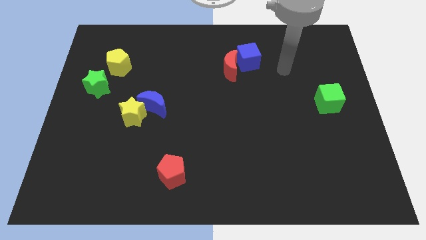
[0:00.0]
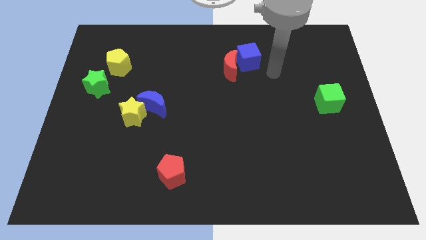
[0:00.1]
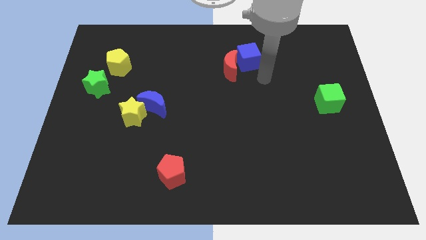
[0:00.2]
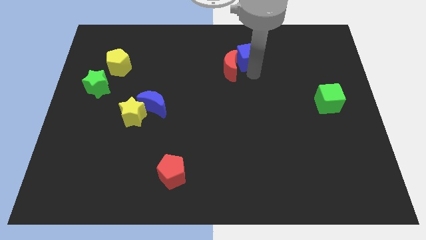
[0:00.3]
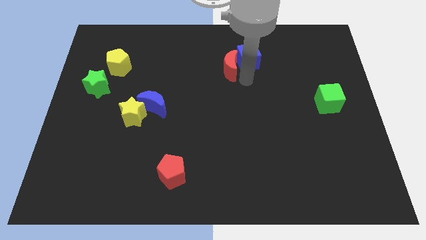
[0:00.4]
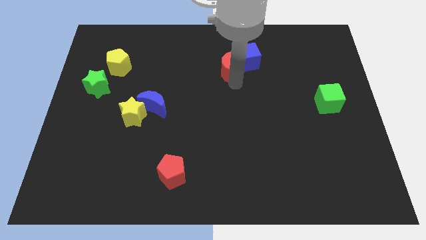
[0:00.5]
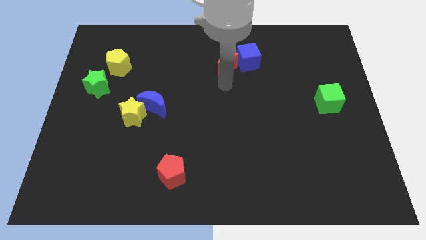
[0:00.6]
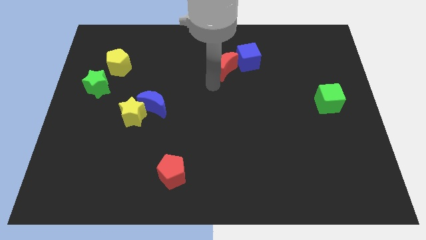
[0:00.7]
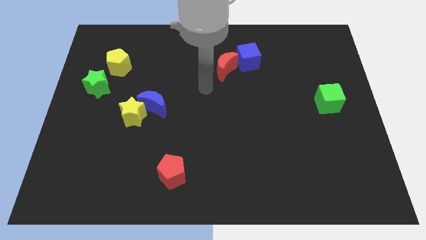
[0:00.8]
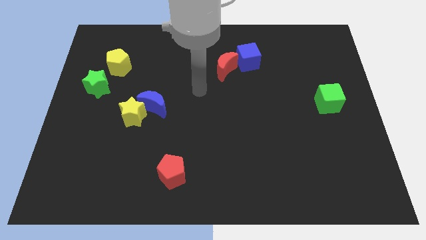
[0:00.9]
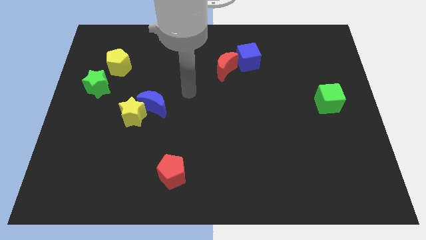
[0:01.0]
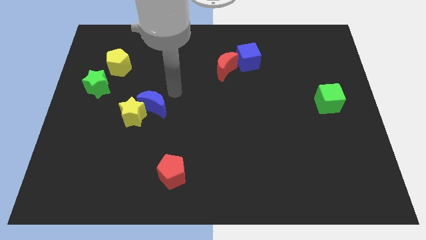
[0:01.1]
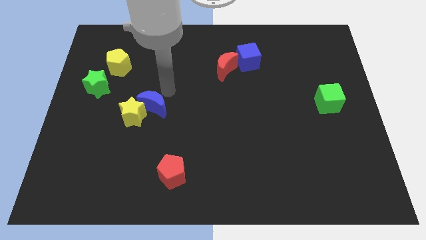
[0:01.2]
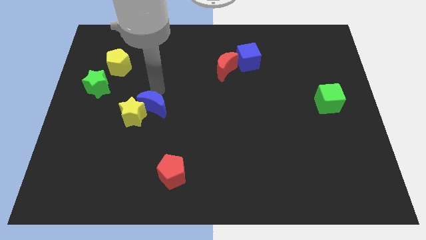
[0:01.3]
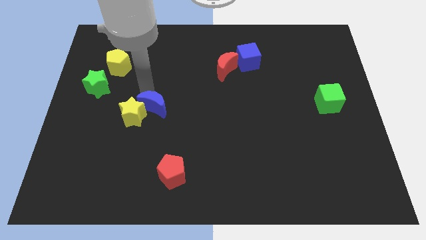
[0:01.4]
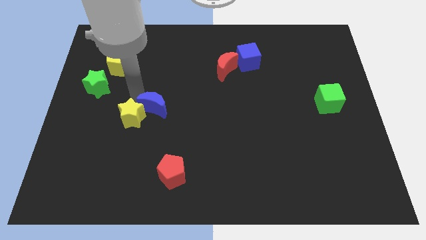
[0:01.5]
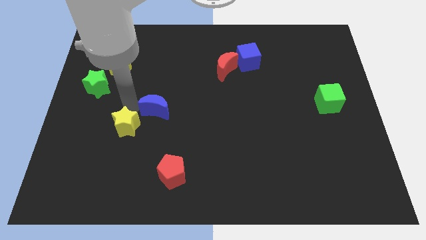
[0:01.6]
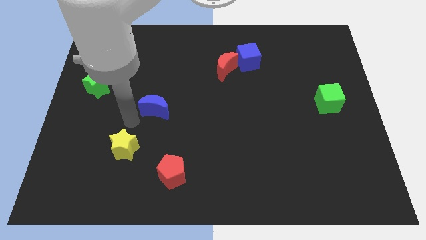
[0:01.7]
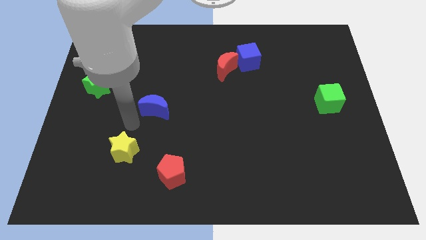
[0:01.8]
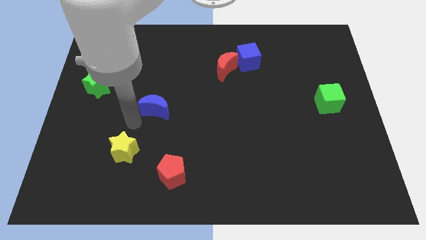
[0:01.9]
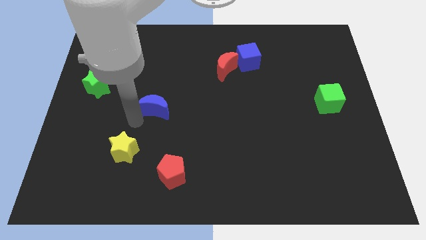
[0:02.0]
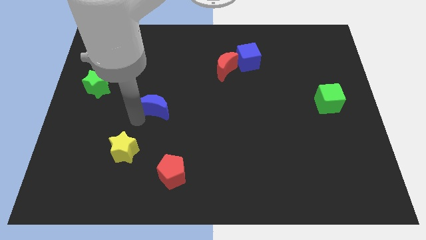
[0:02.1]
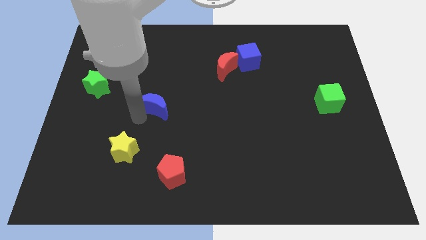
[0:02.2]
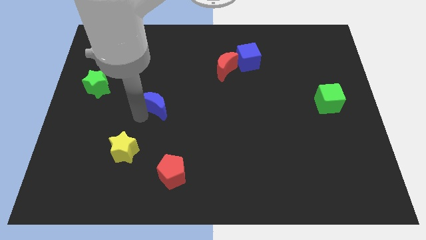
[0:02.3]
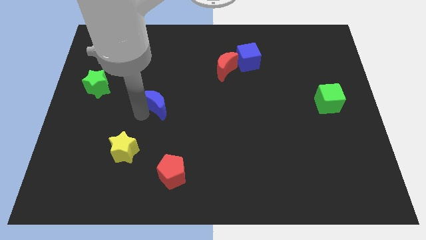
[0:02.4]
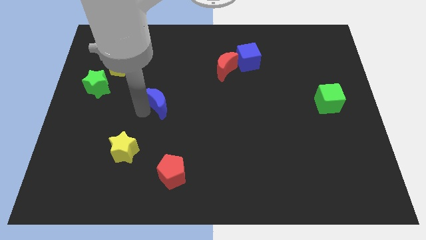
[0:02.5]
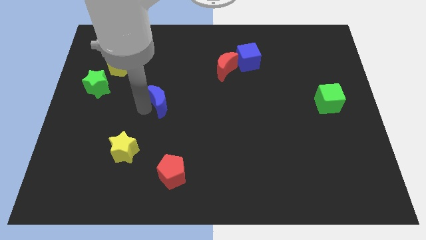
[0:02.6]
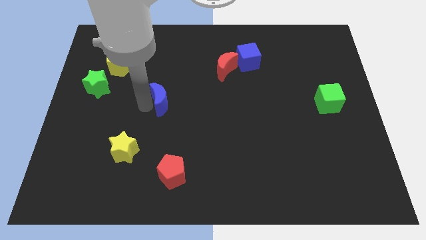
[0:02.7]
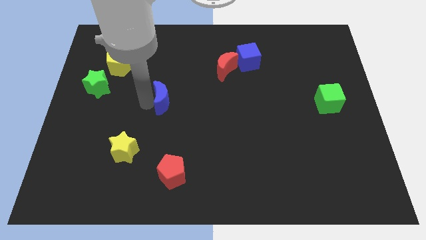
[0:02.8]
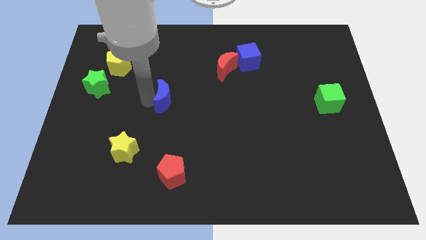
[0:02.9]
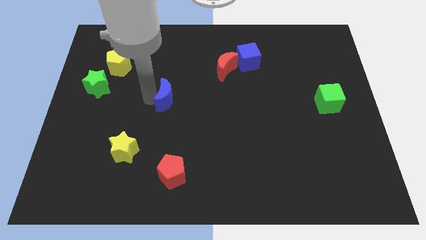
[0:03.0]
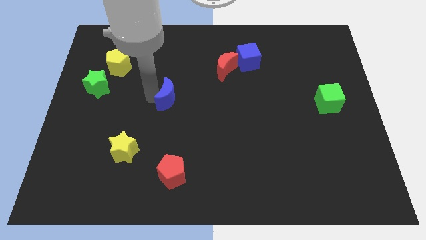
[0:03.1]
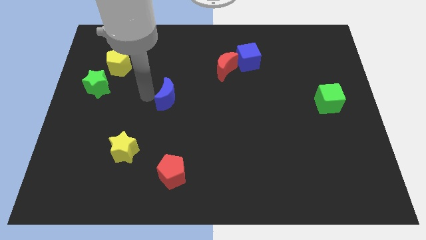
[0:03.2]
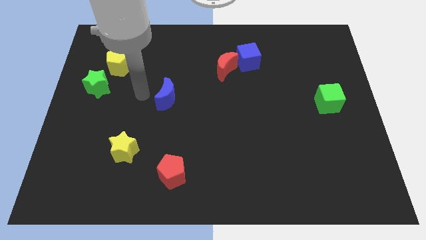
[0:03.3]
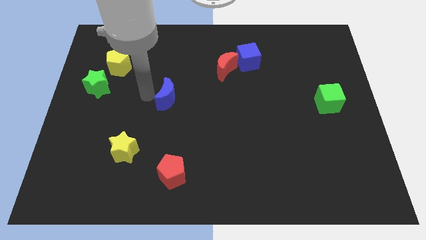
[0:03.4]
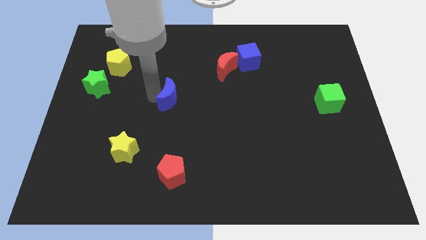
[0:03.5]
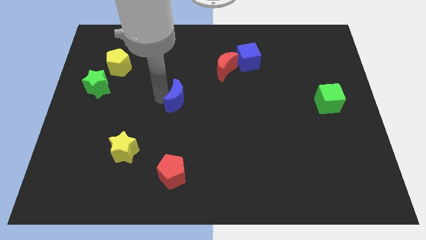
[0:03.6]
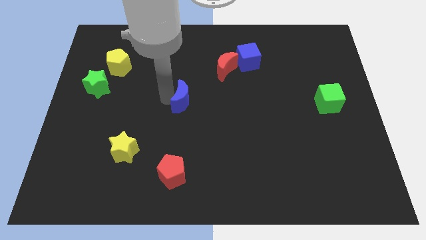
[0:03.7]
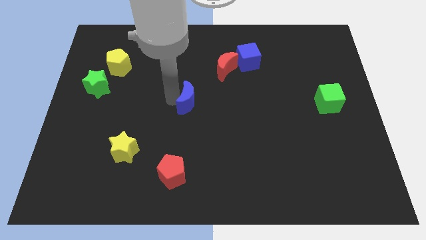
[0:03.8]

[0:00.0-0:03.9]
slightly move the blue moon to the right

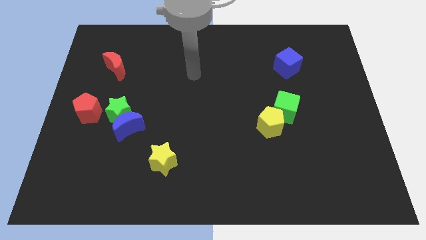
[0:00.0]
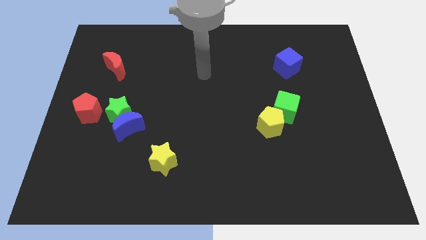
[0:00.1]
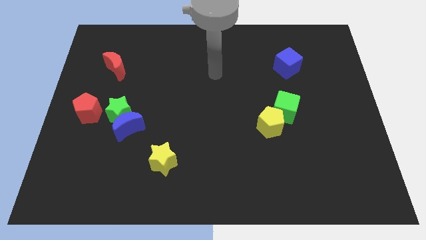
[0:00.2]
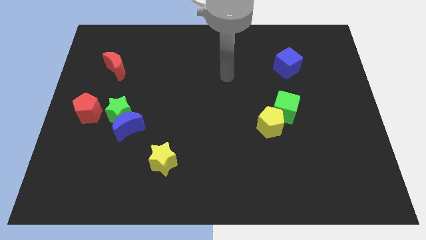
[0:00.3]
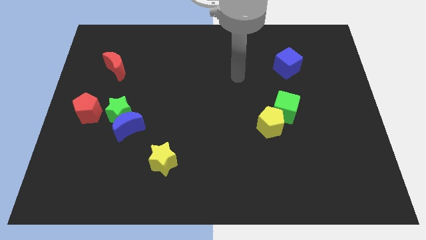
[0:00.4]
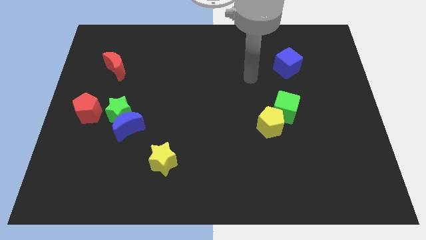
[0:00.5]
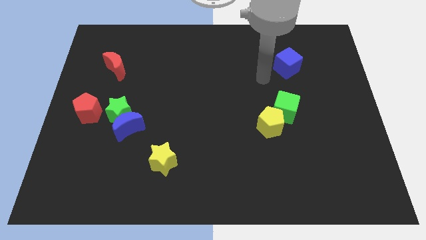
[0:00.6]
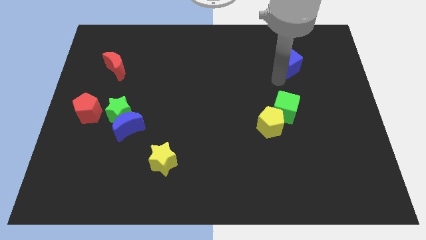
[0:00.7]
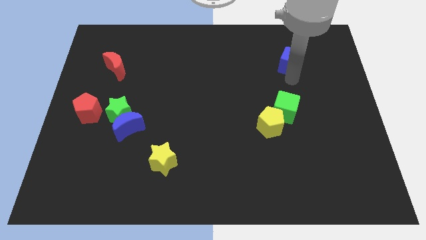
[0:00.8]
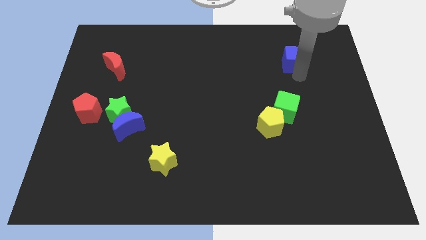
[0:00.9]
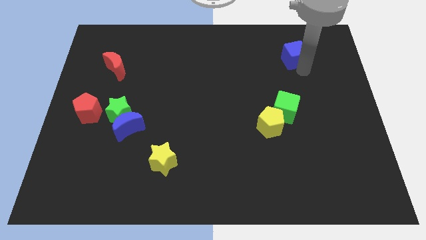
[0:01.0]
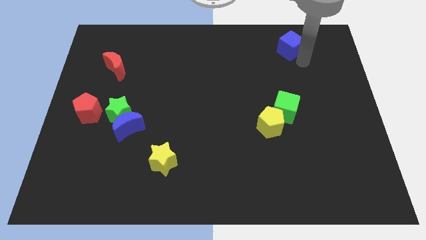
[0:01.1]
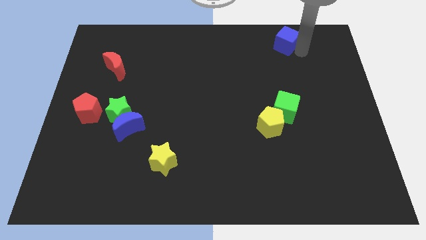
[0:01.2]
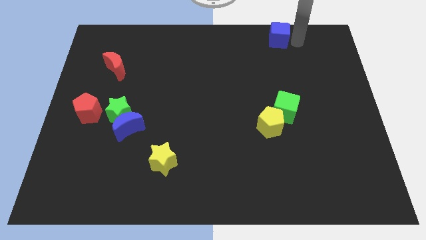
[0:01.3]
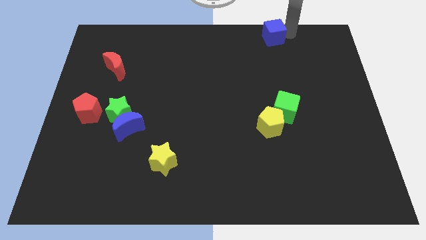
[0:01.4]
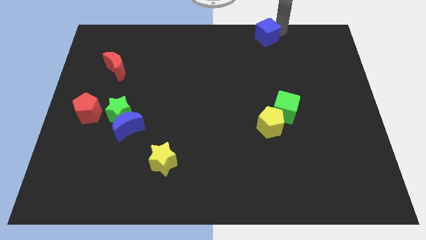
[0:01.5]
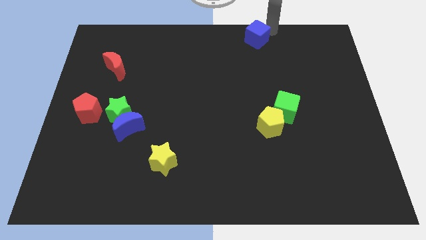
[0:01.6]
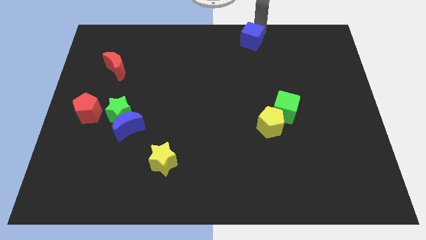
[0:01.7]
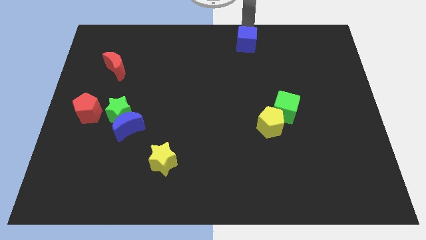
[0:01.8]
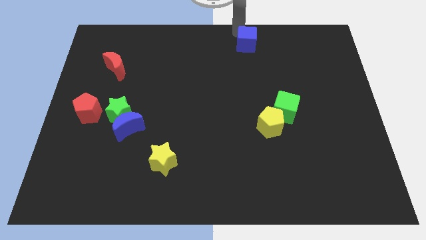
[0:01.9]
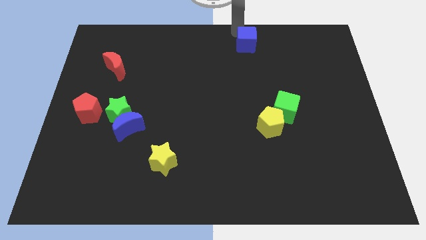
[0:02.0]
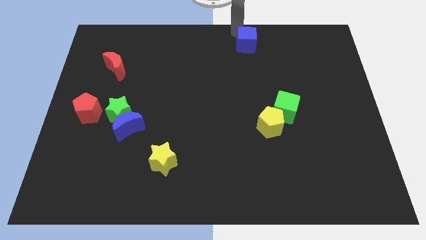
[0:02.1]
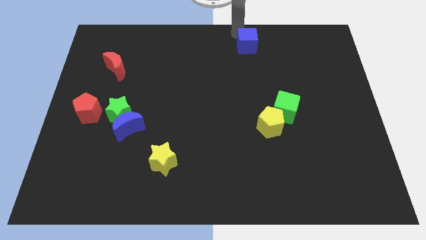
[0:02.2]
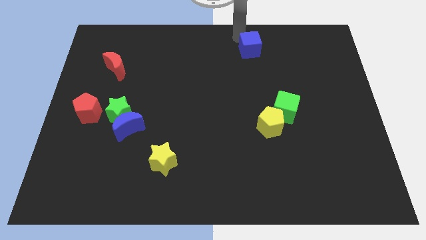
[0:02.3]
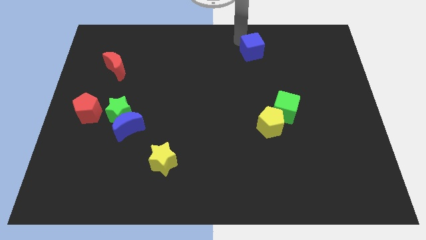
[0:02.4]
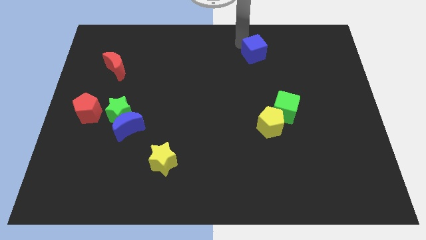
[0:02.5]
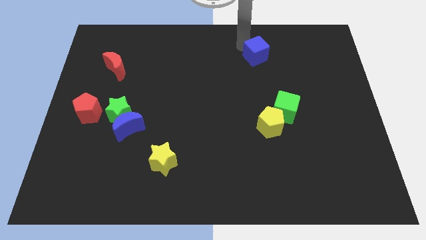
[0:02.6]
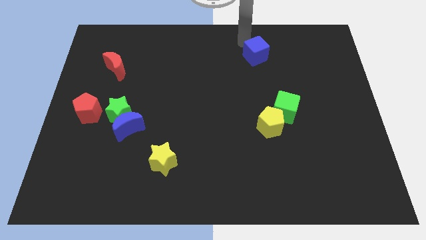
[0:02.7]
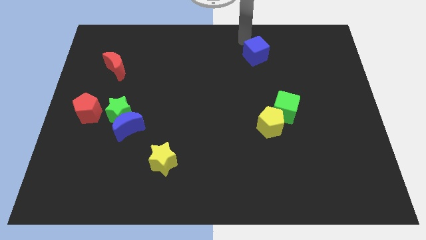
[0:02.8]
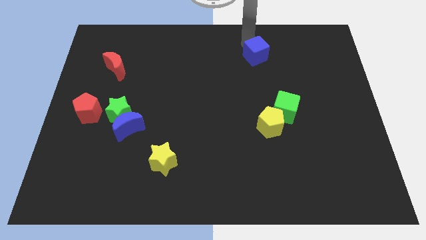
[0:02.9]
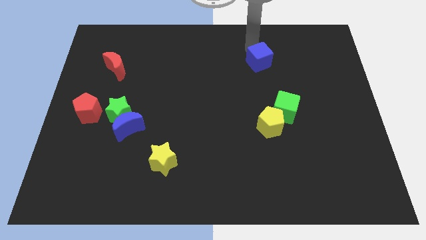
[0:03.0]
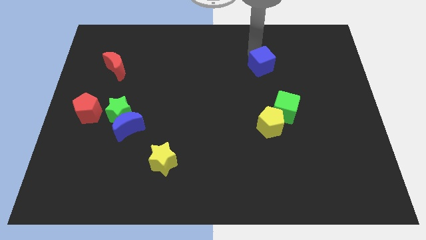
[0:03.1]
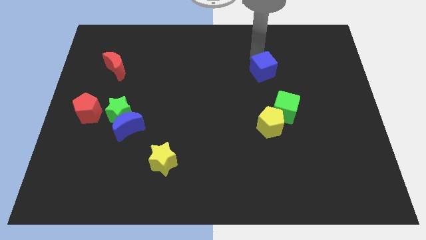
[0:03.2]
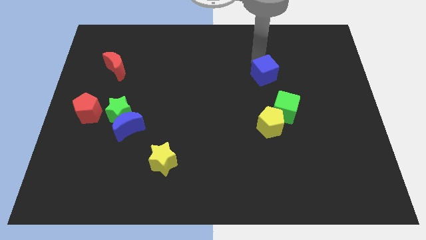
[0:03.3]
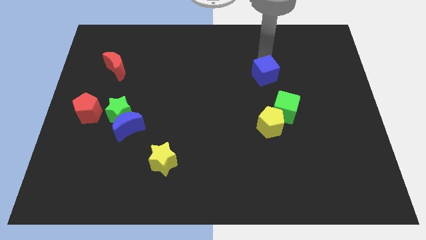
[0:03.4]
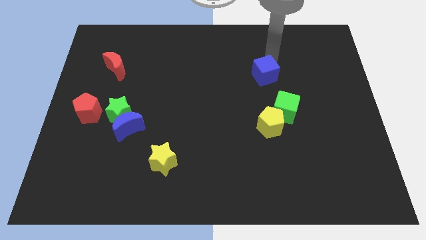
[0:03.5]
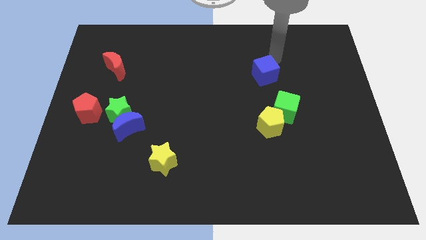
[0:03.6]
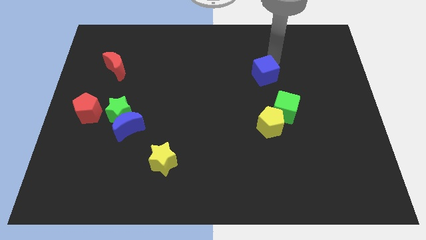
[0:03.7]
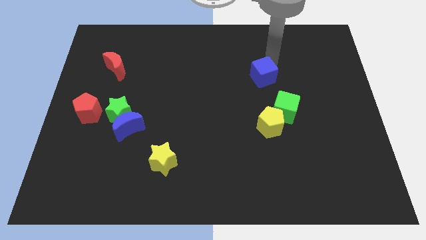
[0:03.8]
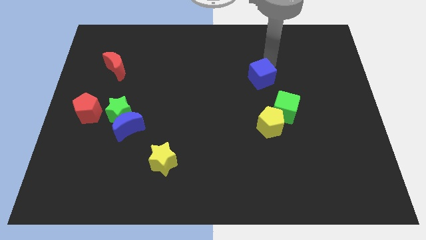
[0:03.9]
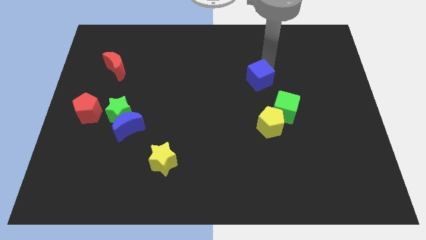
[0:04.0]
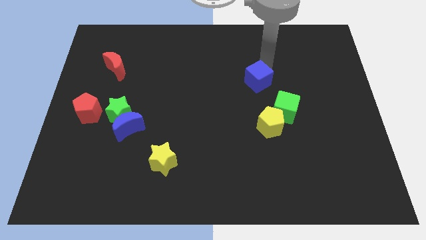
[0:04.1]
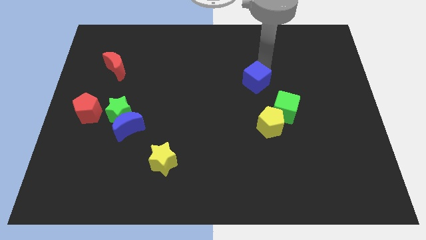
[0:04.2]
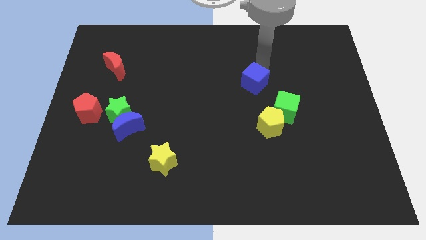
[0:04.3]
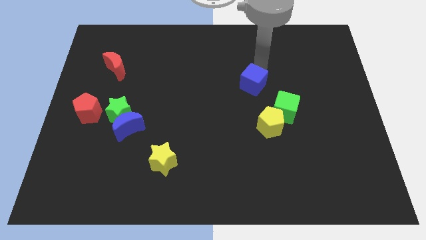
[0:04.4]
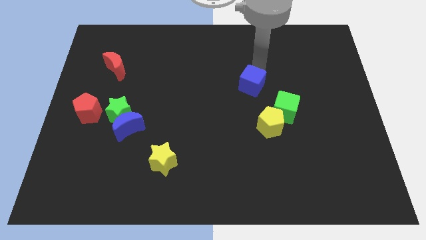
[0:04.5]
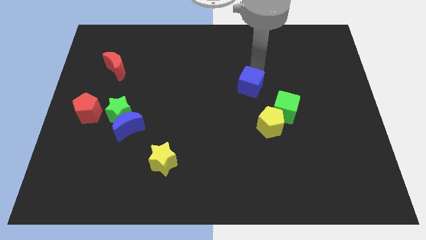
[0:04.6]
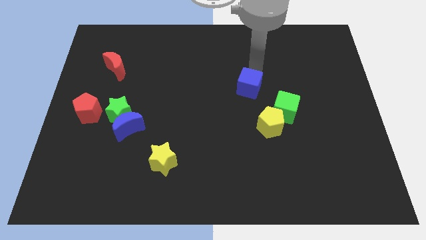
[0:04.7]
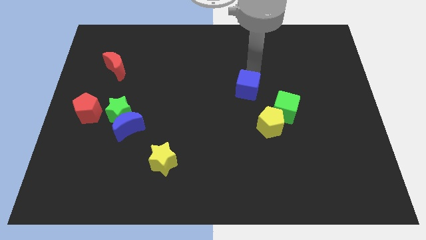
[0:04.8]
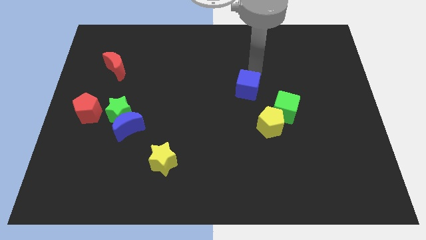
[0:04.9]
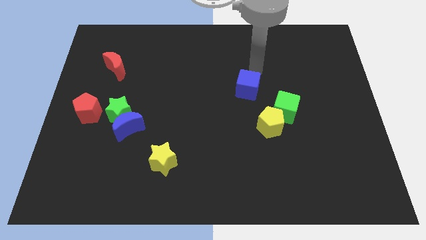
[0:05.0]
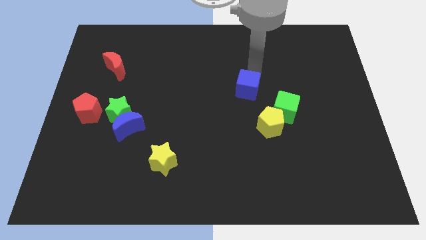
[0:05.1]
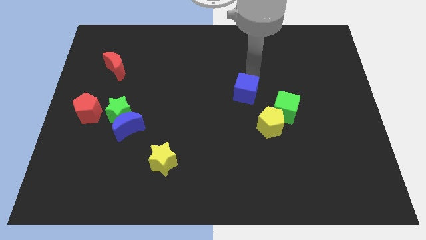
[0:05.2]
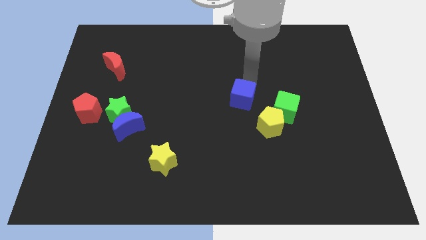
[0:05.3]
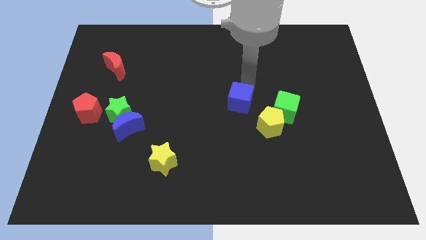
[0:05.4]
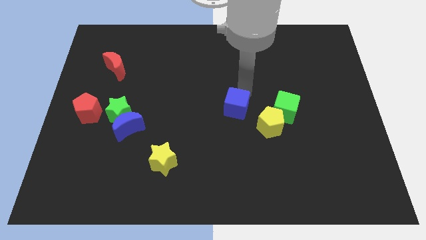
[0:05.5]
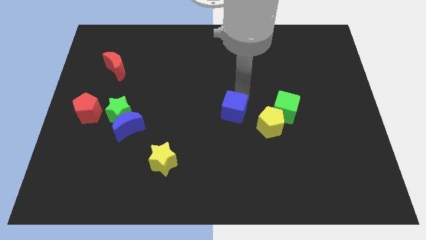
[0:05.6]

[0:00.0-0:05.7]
move the blue cube down and left diagonally
